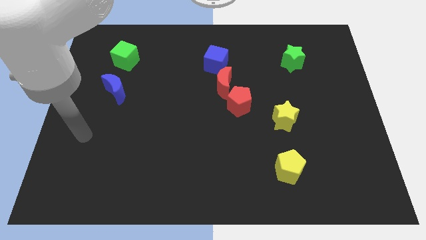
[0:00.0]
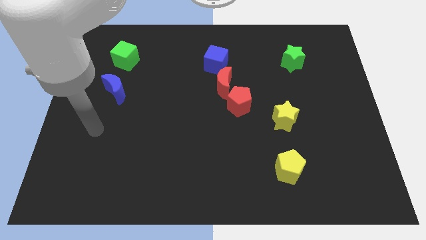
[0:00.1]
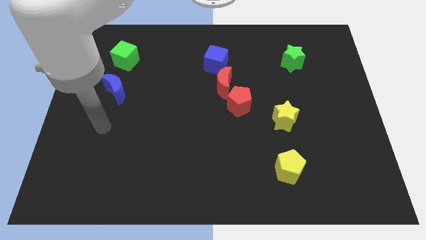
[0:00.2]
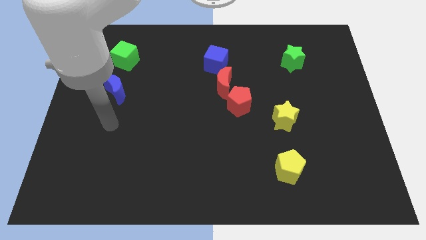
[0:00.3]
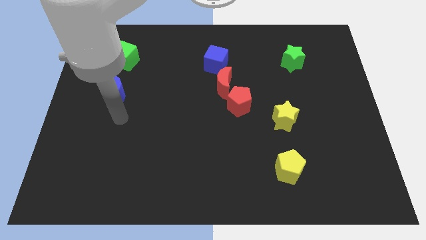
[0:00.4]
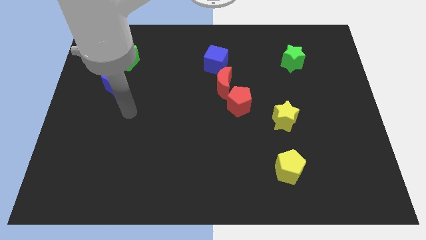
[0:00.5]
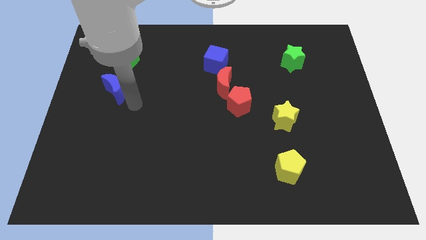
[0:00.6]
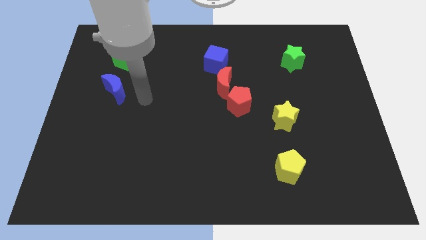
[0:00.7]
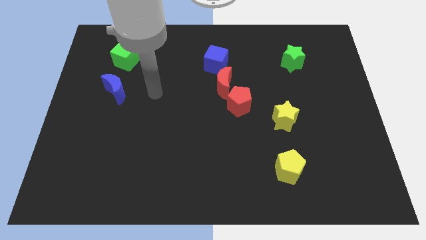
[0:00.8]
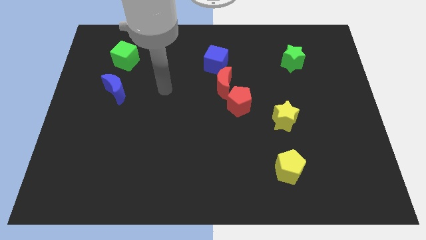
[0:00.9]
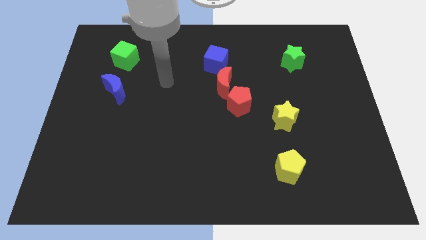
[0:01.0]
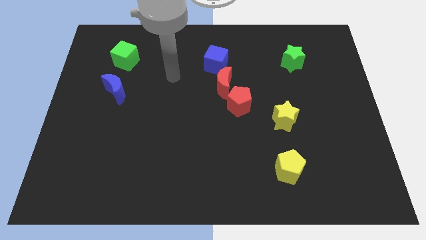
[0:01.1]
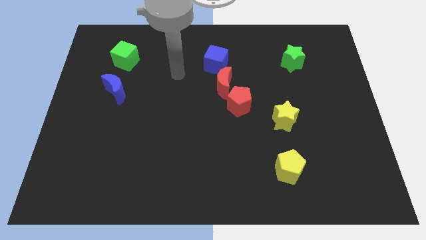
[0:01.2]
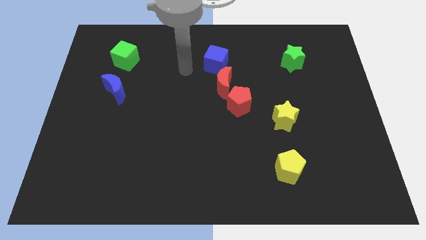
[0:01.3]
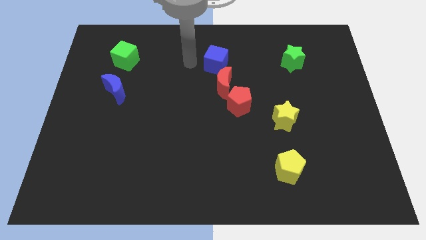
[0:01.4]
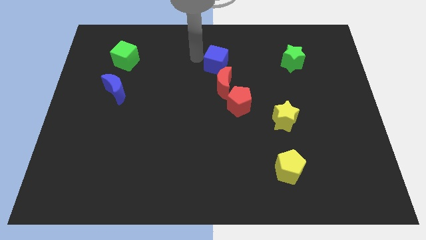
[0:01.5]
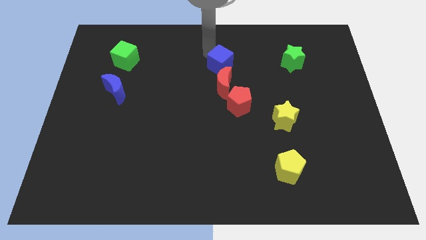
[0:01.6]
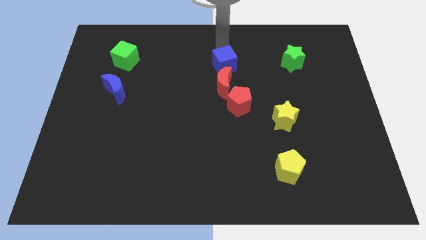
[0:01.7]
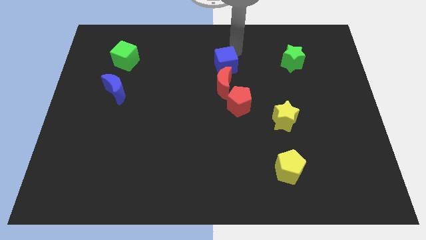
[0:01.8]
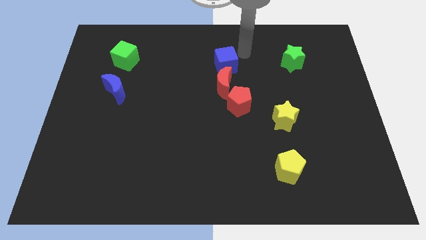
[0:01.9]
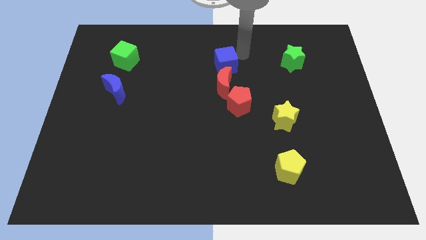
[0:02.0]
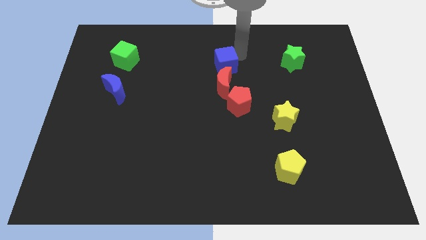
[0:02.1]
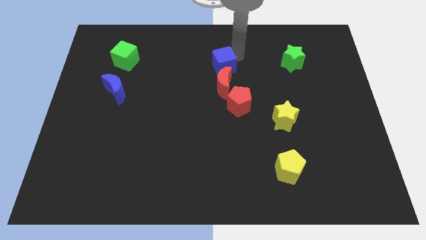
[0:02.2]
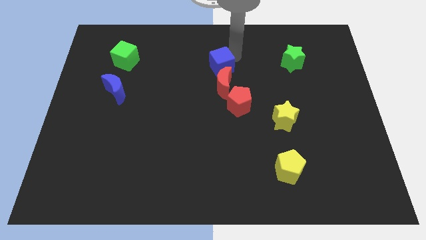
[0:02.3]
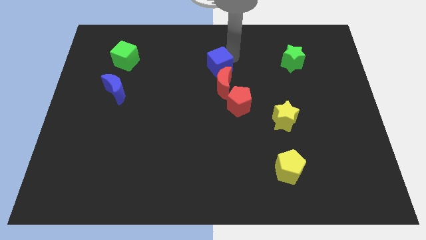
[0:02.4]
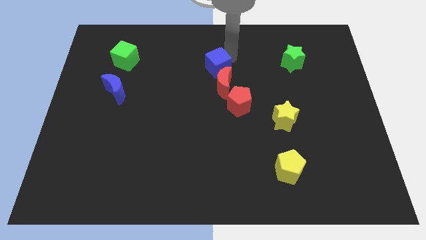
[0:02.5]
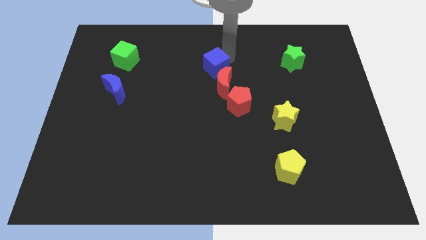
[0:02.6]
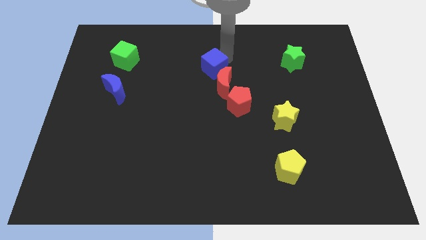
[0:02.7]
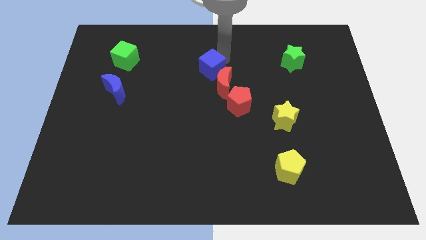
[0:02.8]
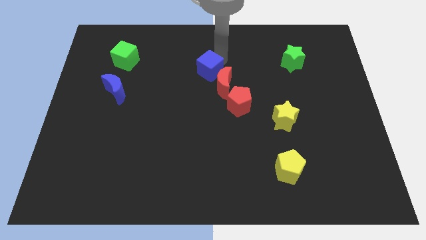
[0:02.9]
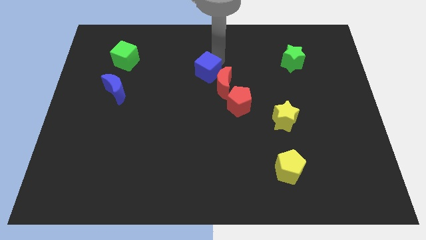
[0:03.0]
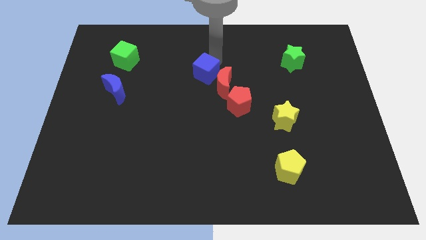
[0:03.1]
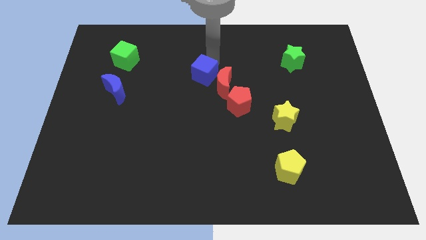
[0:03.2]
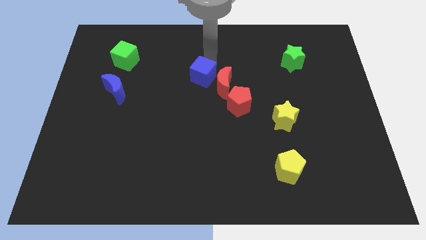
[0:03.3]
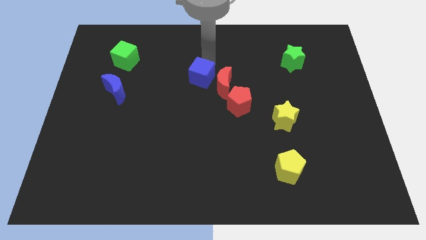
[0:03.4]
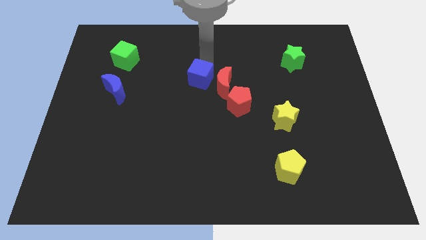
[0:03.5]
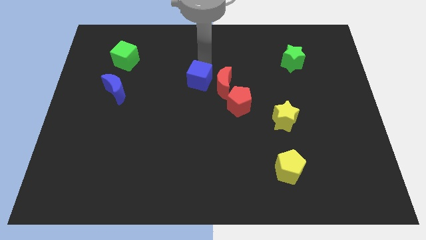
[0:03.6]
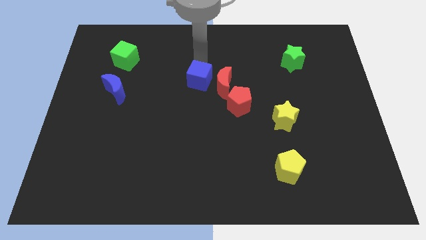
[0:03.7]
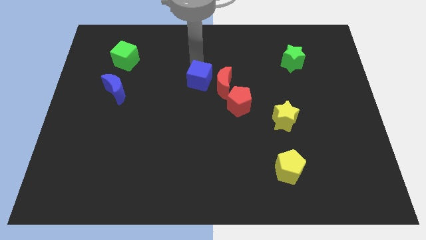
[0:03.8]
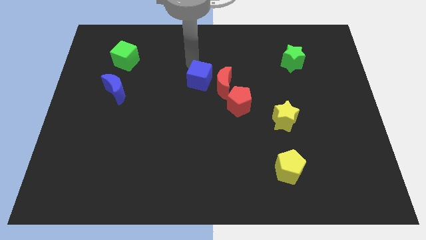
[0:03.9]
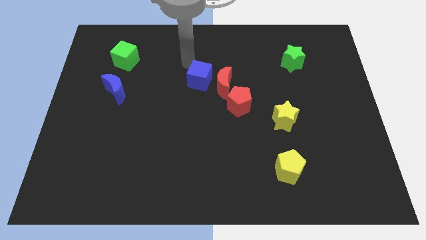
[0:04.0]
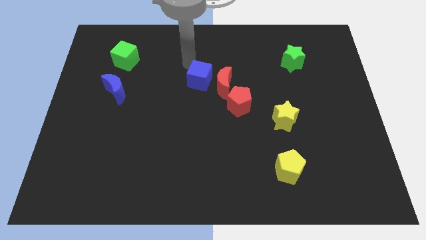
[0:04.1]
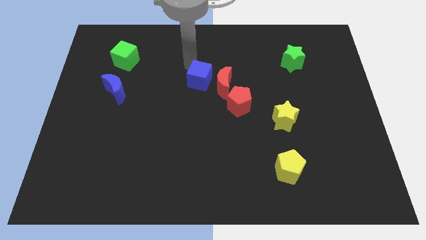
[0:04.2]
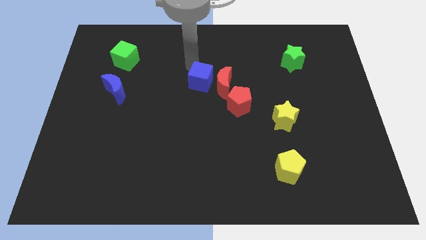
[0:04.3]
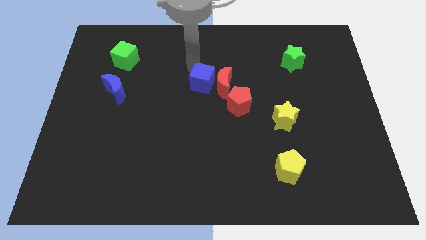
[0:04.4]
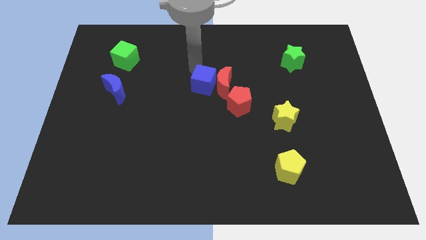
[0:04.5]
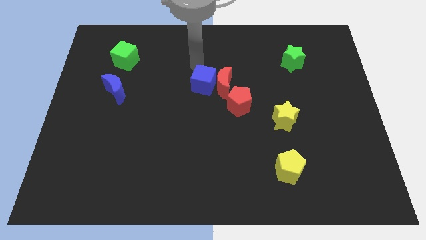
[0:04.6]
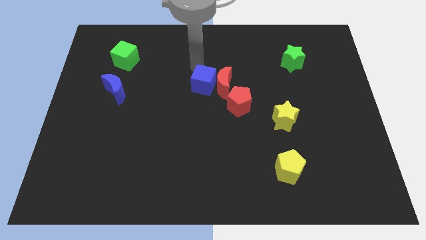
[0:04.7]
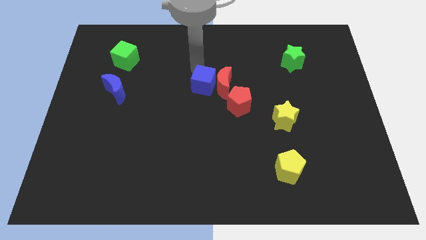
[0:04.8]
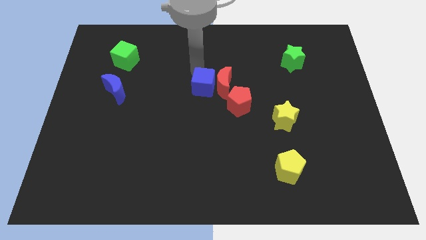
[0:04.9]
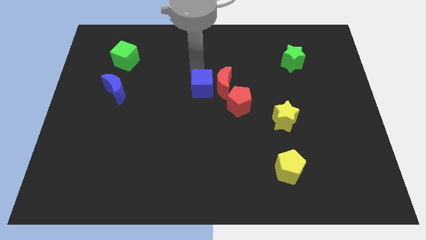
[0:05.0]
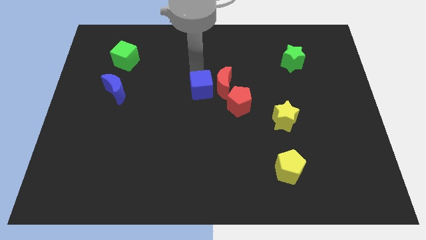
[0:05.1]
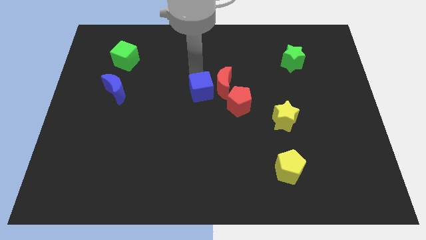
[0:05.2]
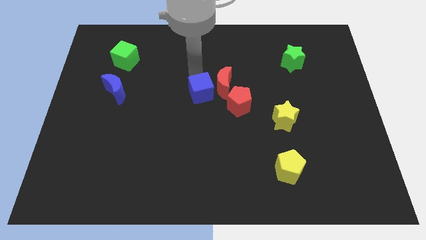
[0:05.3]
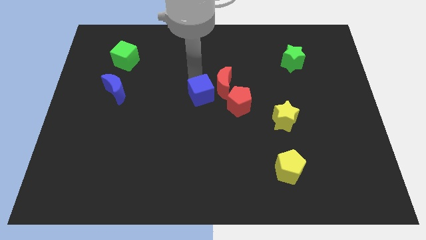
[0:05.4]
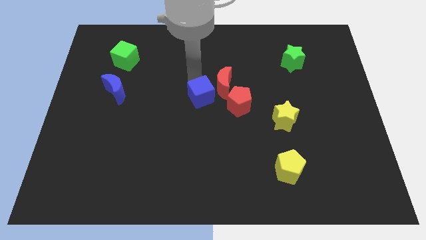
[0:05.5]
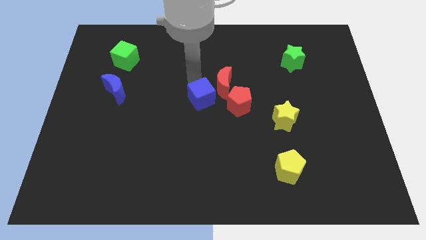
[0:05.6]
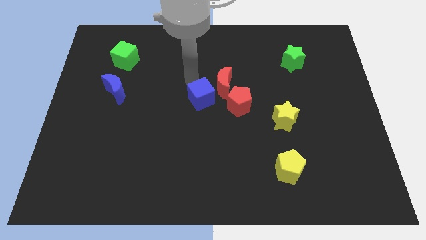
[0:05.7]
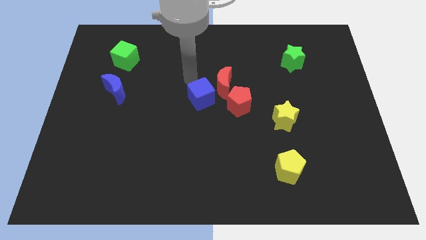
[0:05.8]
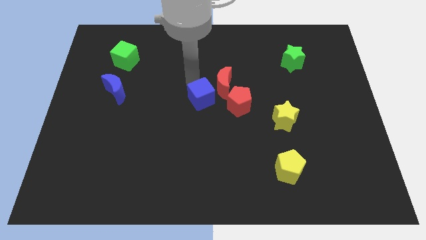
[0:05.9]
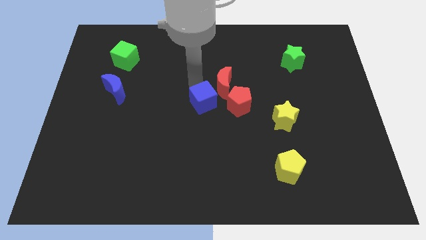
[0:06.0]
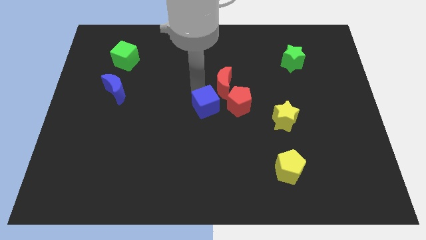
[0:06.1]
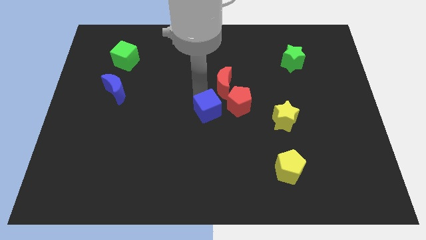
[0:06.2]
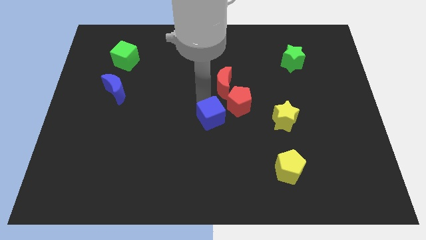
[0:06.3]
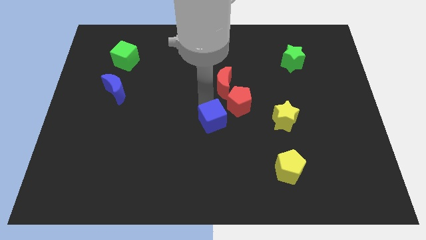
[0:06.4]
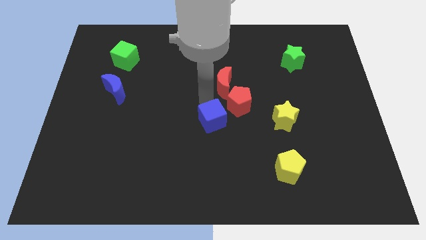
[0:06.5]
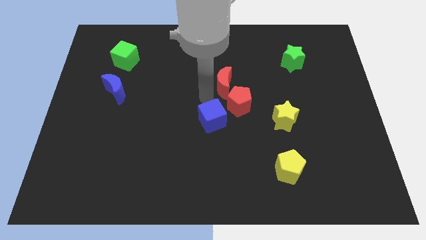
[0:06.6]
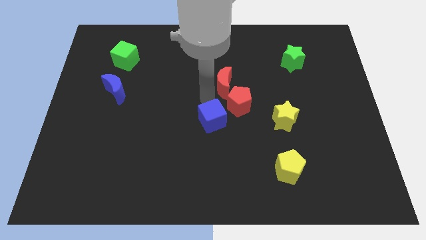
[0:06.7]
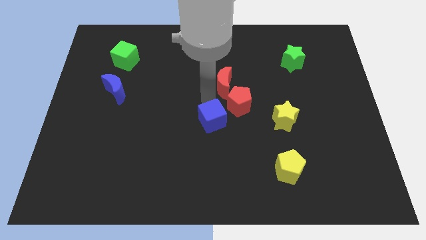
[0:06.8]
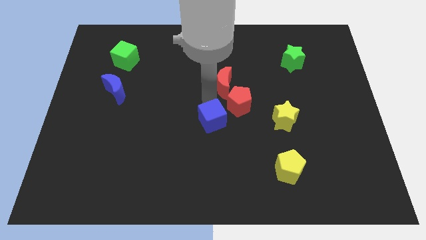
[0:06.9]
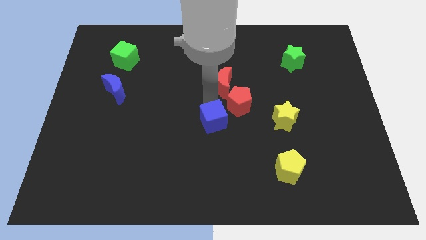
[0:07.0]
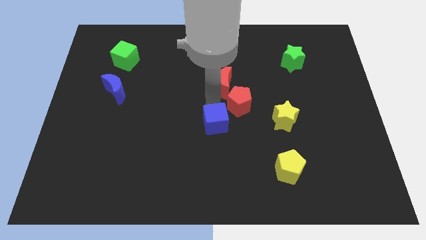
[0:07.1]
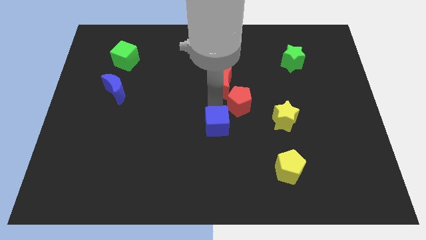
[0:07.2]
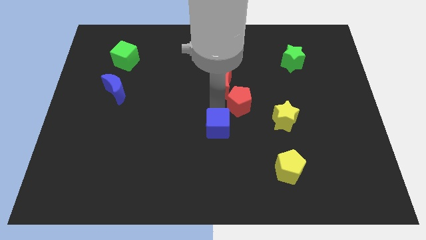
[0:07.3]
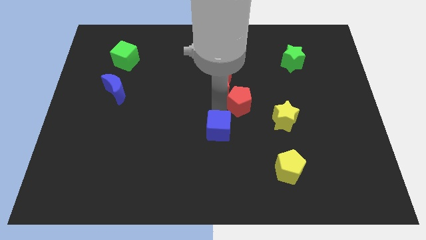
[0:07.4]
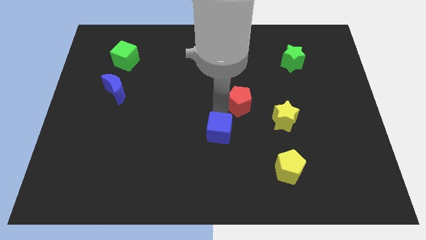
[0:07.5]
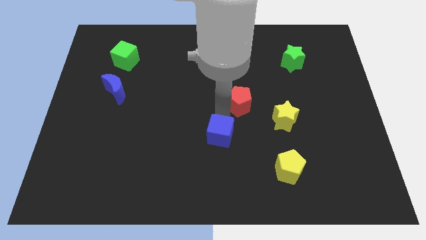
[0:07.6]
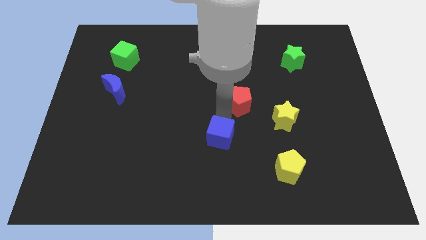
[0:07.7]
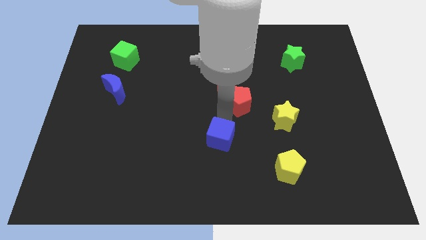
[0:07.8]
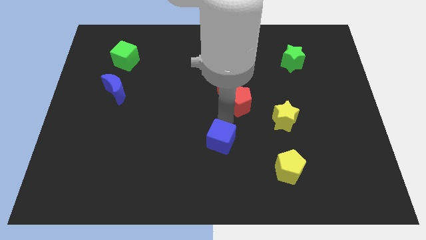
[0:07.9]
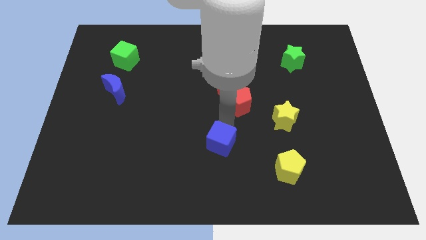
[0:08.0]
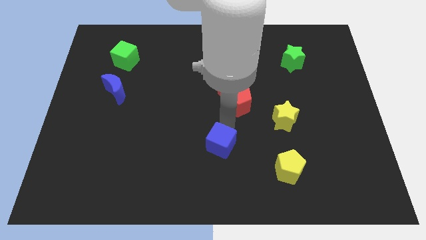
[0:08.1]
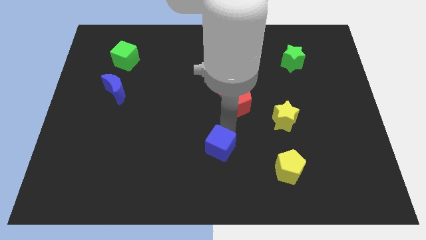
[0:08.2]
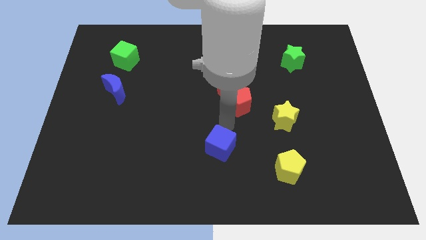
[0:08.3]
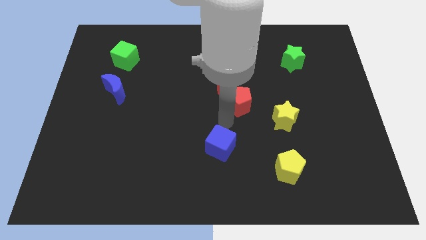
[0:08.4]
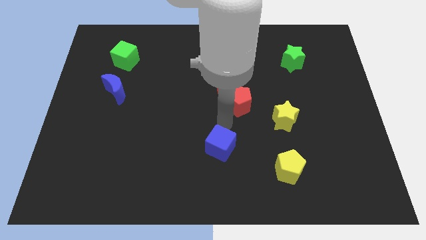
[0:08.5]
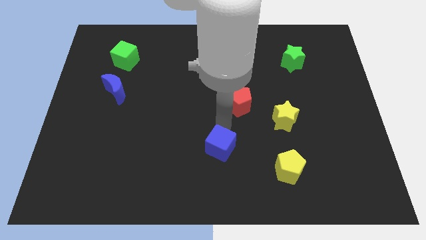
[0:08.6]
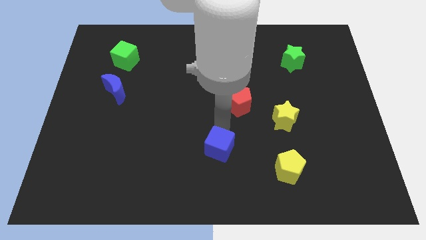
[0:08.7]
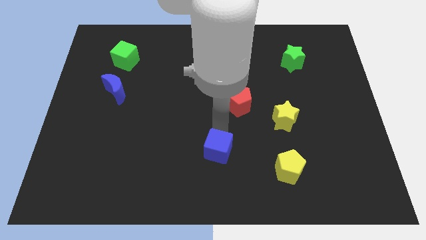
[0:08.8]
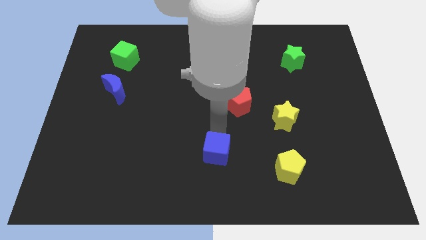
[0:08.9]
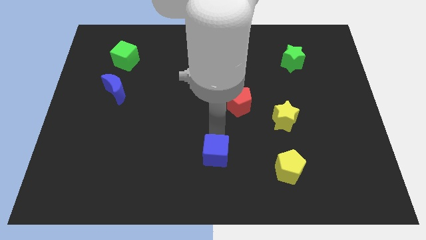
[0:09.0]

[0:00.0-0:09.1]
put the blue cube to the bottom
